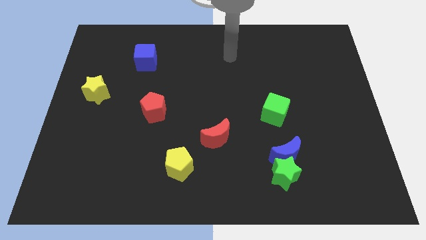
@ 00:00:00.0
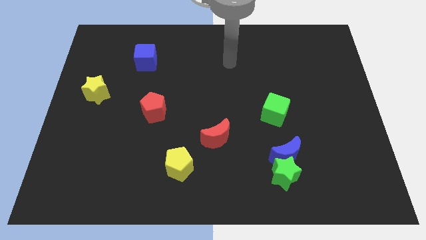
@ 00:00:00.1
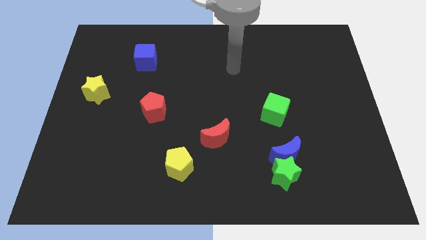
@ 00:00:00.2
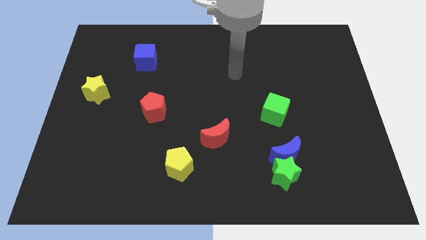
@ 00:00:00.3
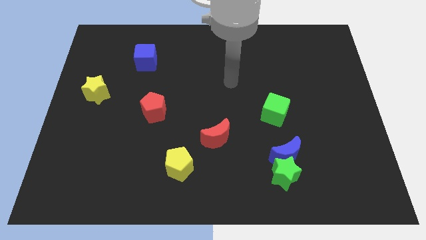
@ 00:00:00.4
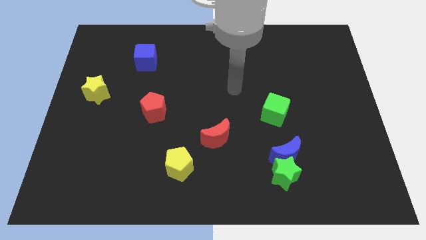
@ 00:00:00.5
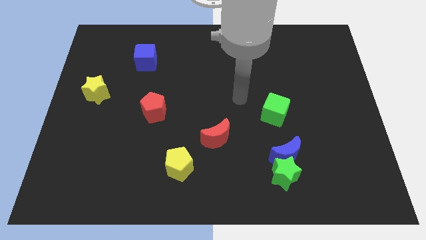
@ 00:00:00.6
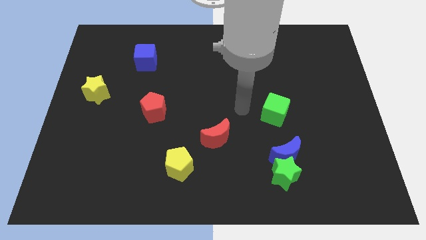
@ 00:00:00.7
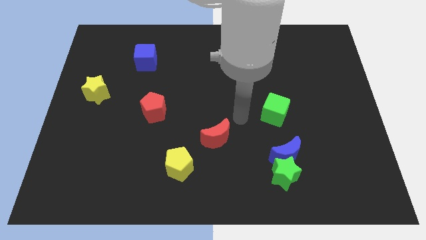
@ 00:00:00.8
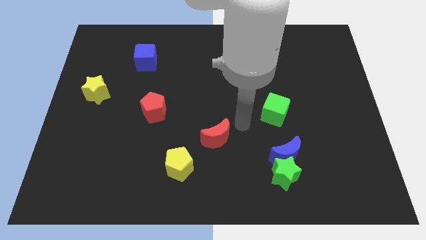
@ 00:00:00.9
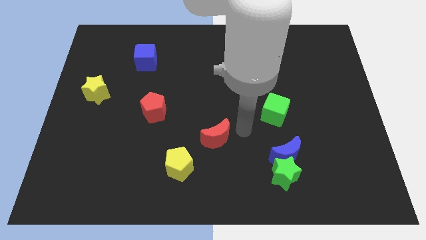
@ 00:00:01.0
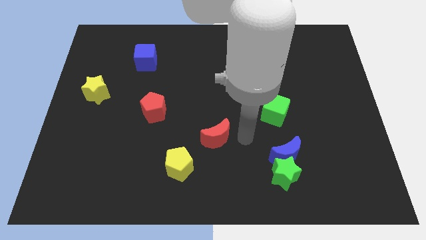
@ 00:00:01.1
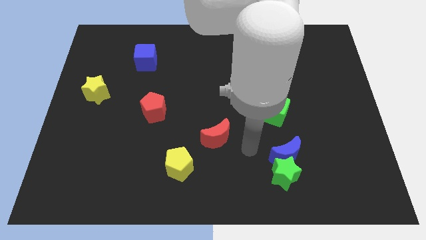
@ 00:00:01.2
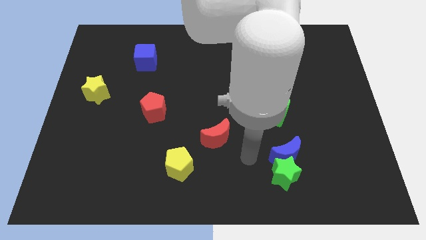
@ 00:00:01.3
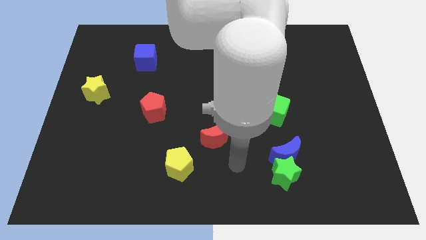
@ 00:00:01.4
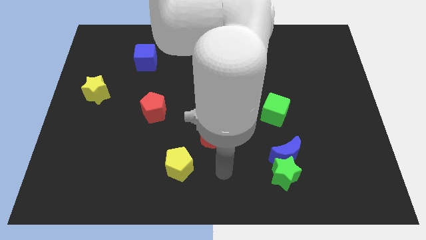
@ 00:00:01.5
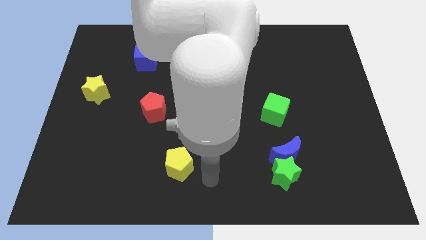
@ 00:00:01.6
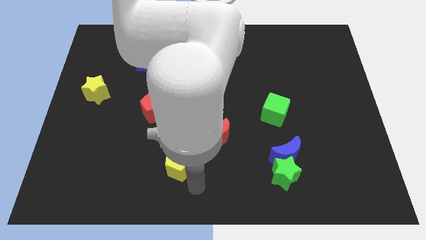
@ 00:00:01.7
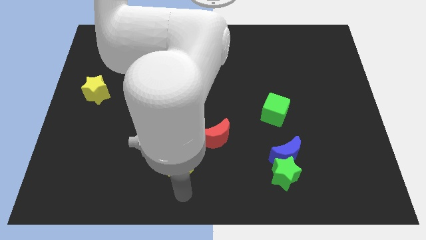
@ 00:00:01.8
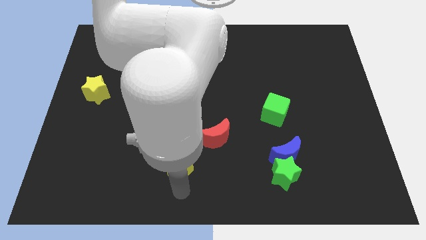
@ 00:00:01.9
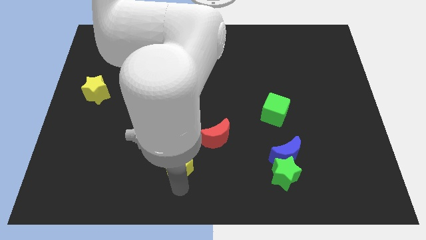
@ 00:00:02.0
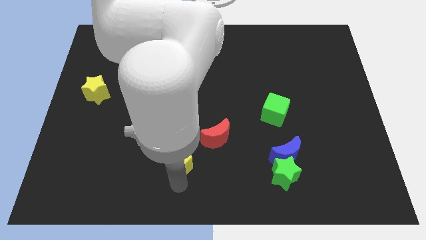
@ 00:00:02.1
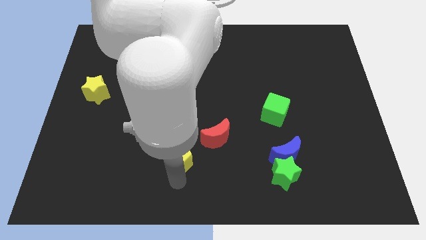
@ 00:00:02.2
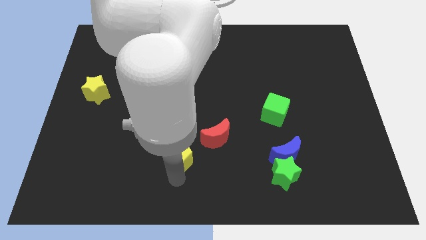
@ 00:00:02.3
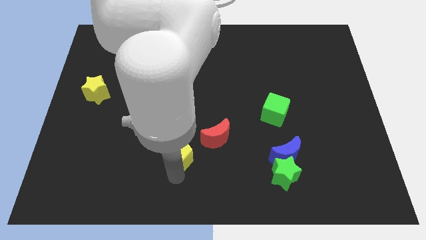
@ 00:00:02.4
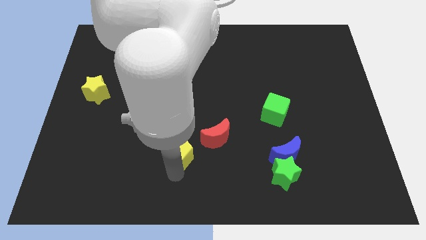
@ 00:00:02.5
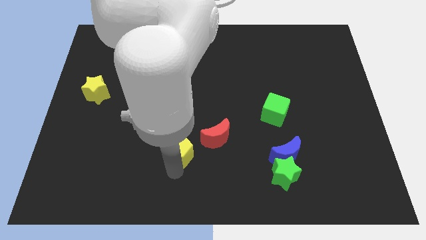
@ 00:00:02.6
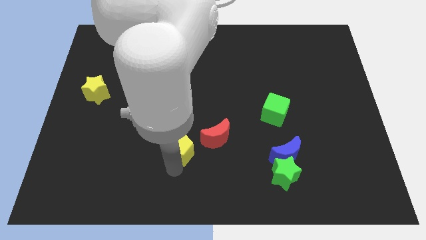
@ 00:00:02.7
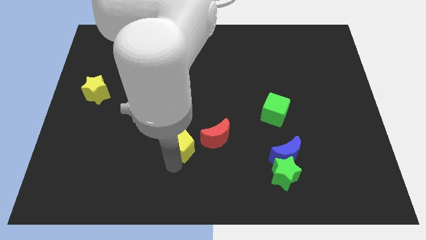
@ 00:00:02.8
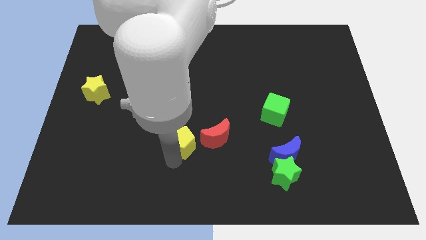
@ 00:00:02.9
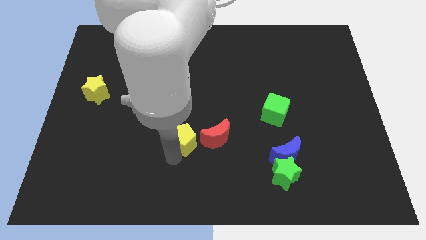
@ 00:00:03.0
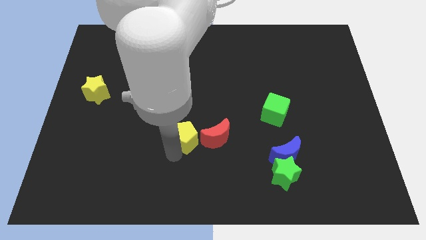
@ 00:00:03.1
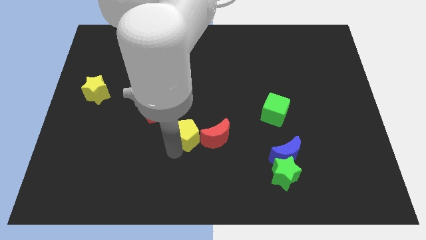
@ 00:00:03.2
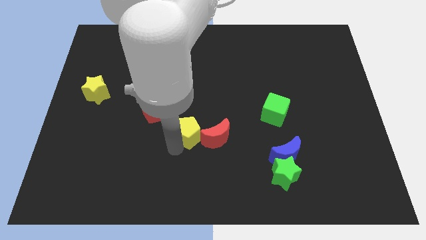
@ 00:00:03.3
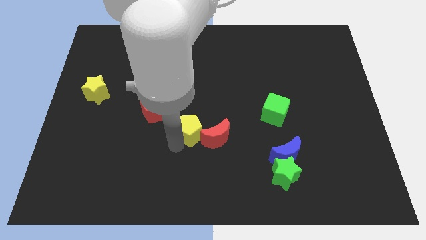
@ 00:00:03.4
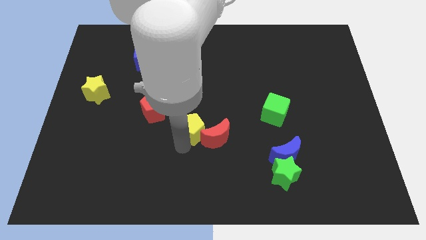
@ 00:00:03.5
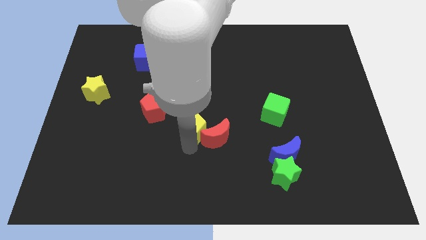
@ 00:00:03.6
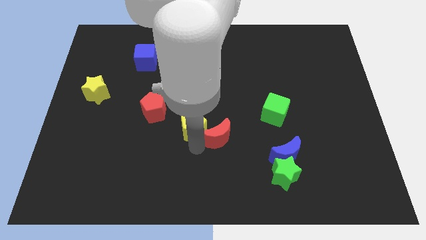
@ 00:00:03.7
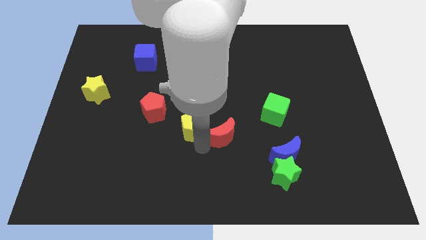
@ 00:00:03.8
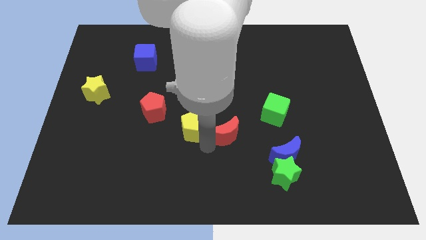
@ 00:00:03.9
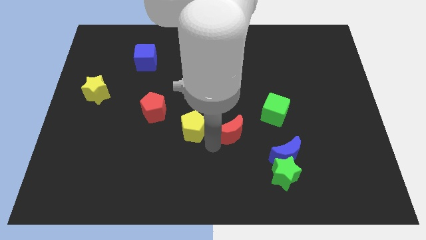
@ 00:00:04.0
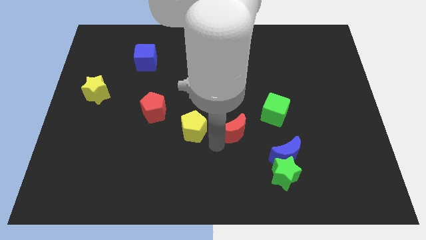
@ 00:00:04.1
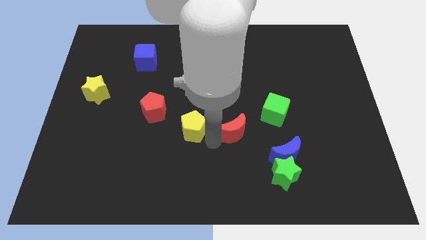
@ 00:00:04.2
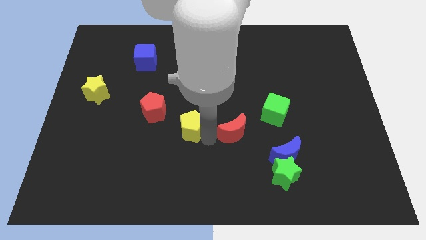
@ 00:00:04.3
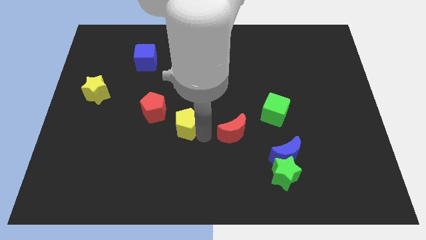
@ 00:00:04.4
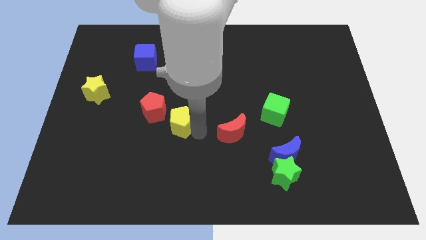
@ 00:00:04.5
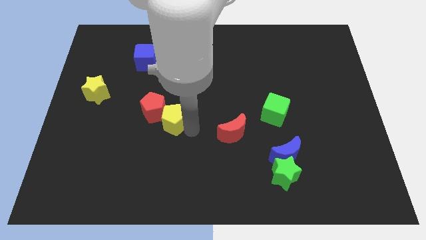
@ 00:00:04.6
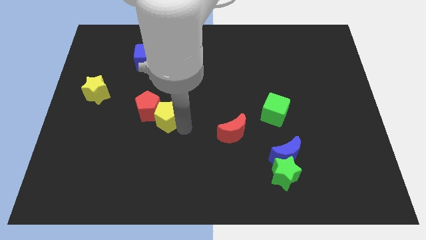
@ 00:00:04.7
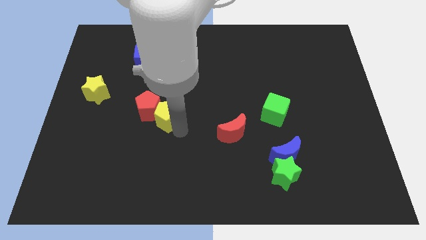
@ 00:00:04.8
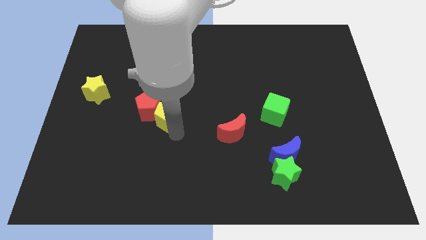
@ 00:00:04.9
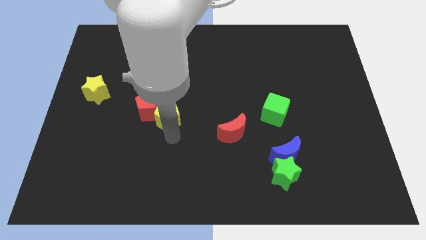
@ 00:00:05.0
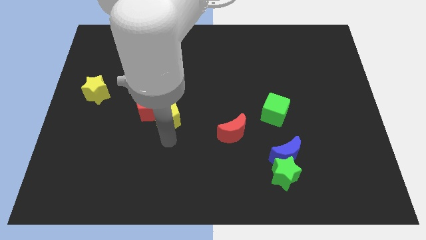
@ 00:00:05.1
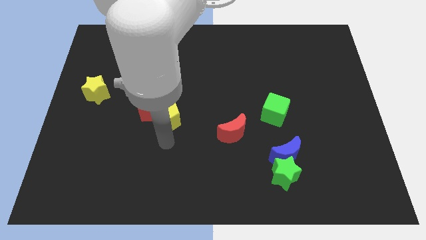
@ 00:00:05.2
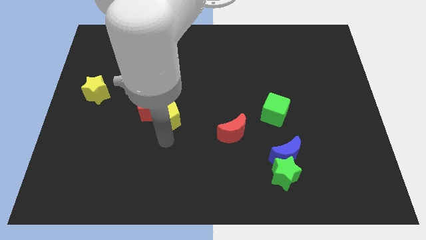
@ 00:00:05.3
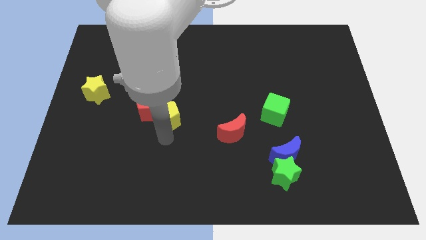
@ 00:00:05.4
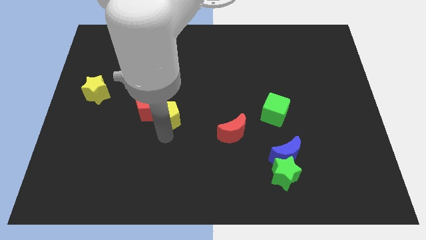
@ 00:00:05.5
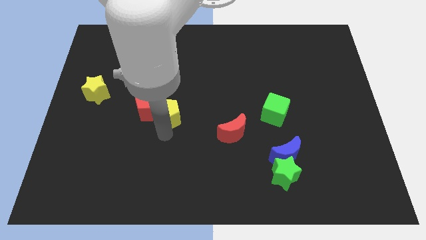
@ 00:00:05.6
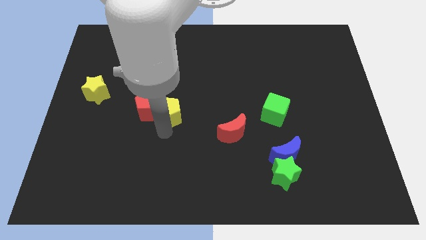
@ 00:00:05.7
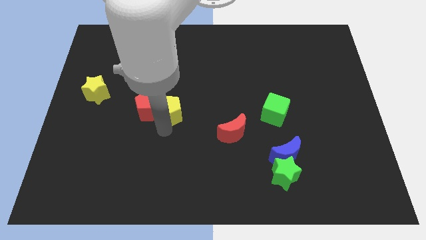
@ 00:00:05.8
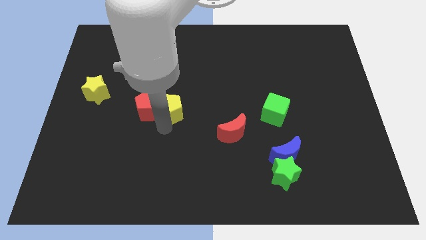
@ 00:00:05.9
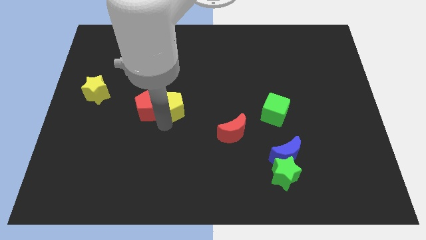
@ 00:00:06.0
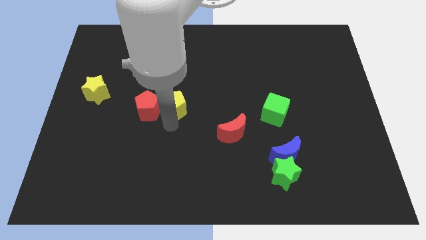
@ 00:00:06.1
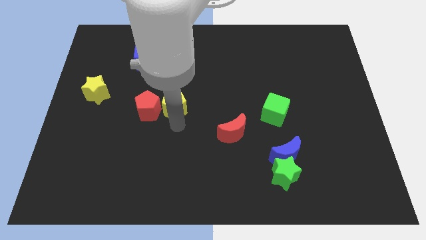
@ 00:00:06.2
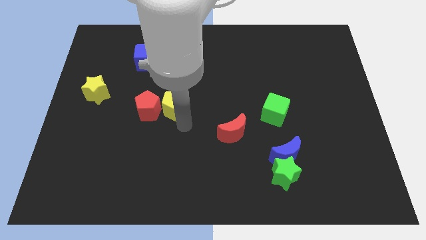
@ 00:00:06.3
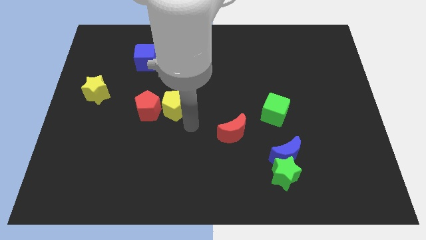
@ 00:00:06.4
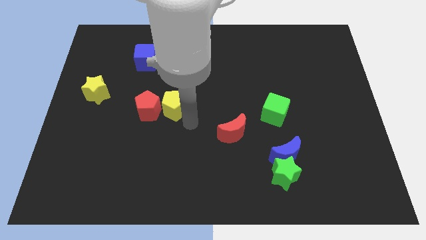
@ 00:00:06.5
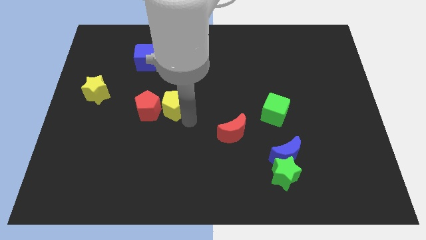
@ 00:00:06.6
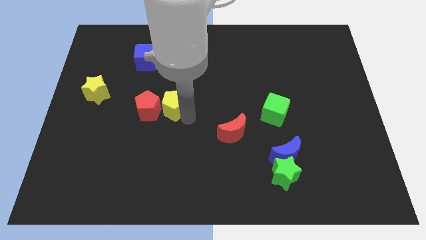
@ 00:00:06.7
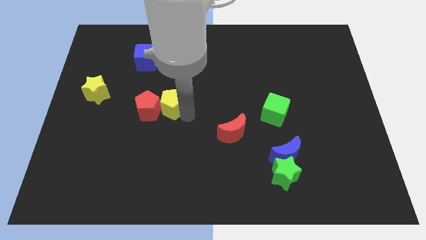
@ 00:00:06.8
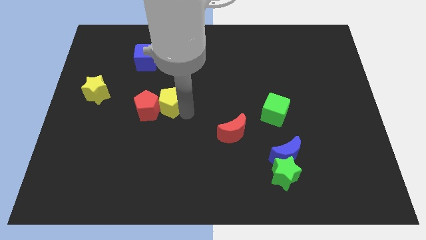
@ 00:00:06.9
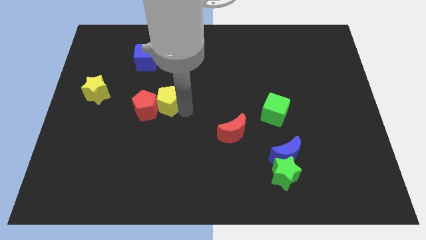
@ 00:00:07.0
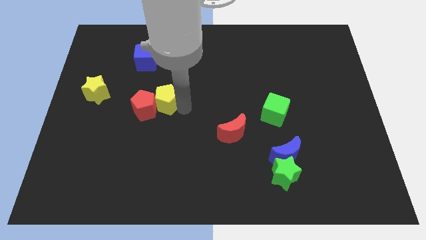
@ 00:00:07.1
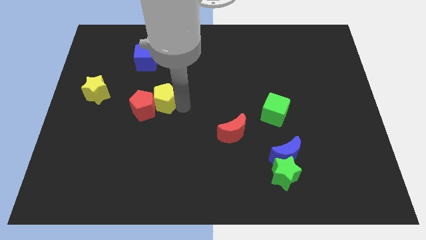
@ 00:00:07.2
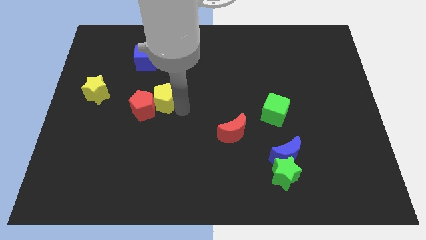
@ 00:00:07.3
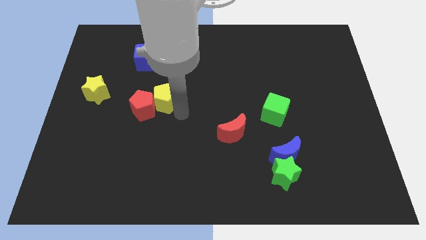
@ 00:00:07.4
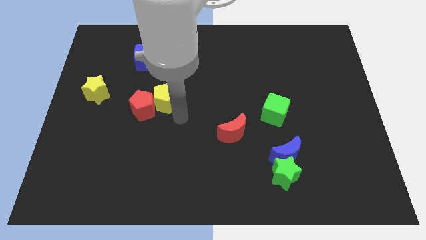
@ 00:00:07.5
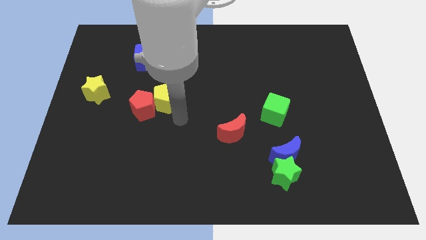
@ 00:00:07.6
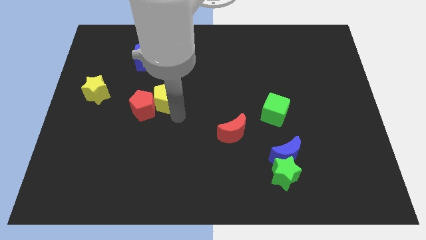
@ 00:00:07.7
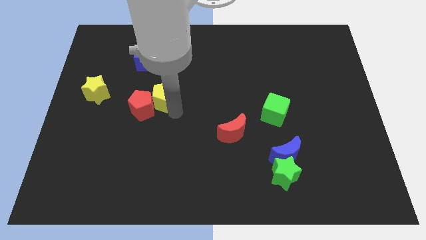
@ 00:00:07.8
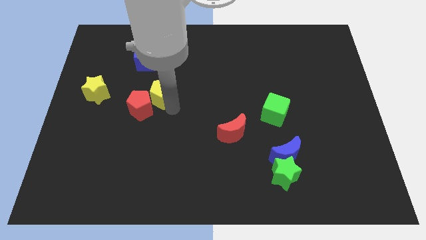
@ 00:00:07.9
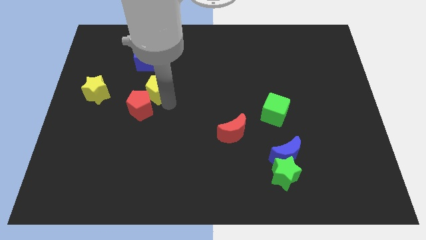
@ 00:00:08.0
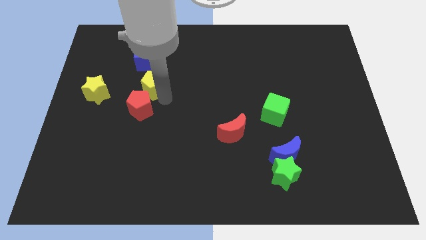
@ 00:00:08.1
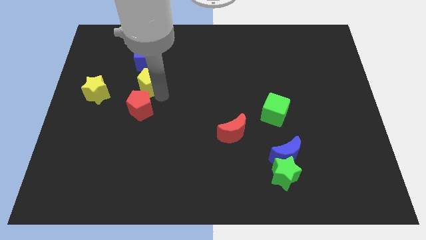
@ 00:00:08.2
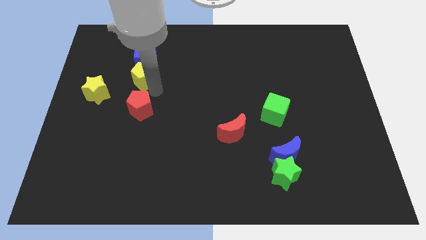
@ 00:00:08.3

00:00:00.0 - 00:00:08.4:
push the yellow pentagon next to the blue cube
